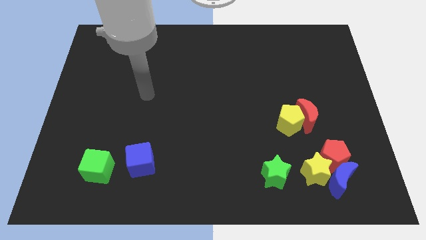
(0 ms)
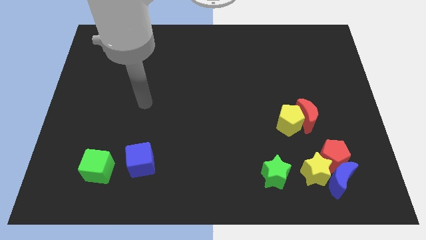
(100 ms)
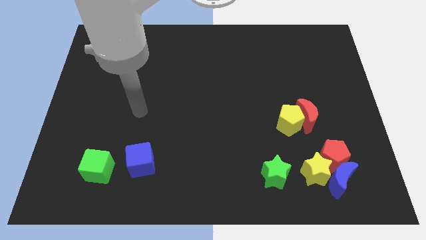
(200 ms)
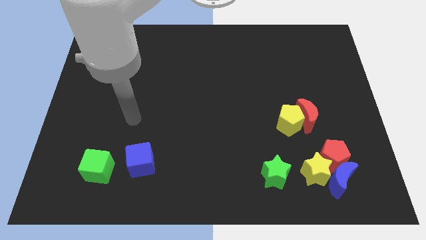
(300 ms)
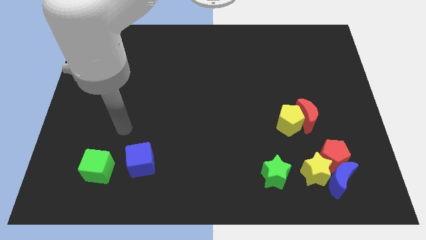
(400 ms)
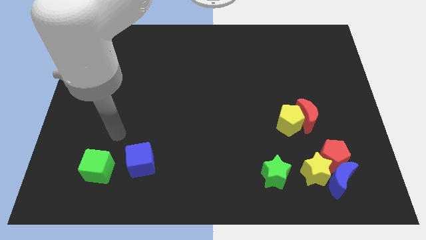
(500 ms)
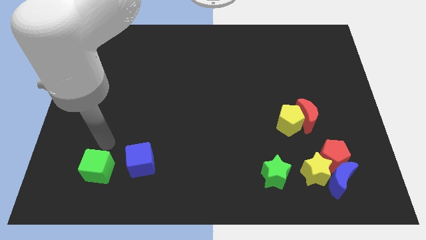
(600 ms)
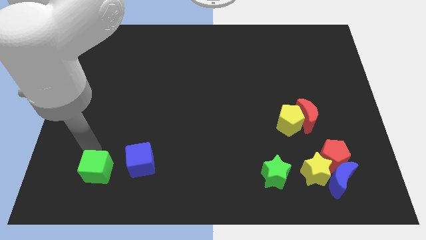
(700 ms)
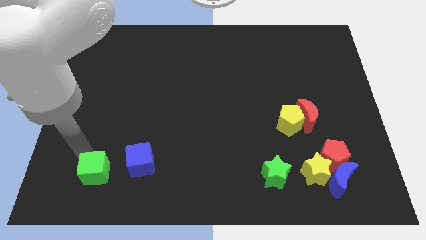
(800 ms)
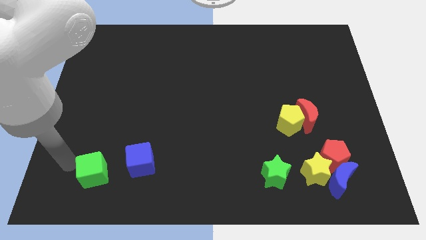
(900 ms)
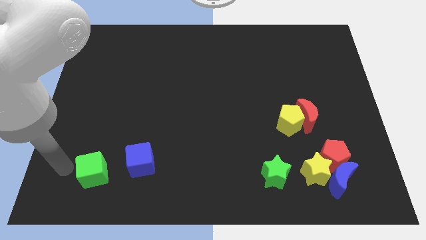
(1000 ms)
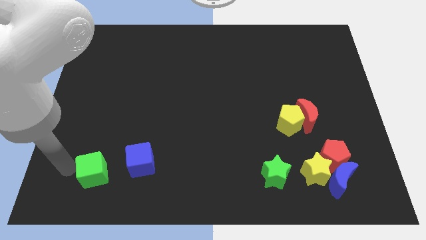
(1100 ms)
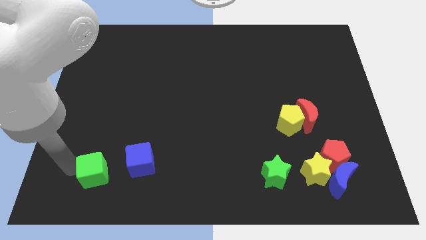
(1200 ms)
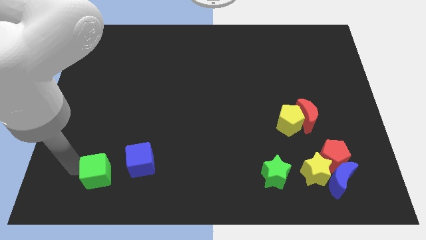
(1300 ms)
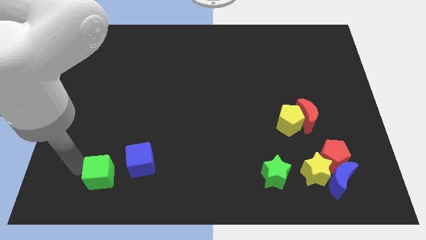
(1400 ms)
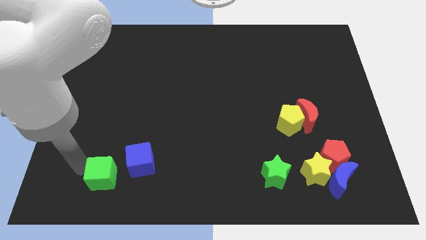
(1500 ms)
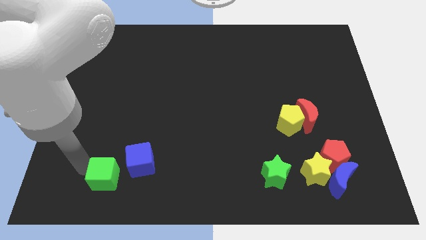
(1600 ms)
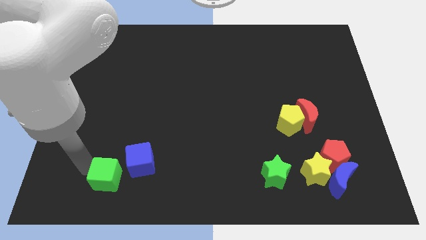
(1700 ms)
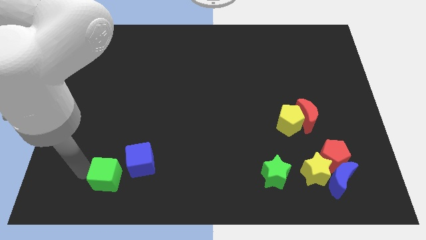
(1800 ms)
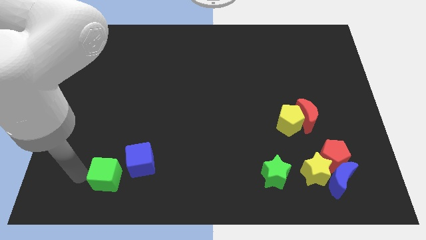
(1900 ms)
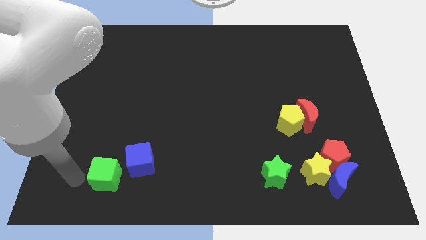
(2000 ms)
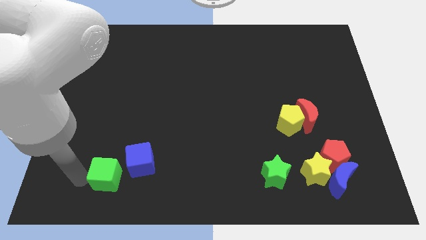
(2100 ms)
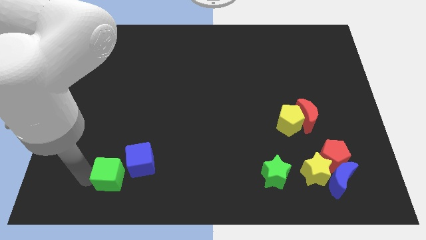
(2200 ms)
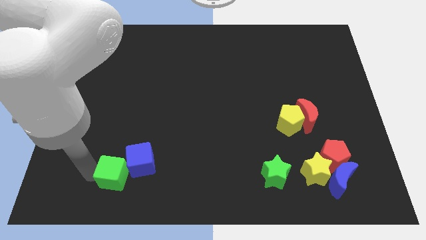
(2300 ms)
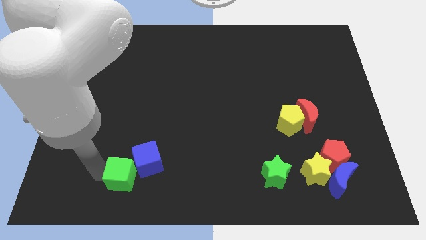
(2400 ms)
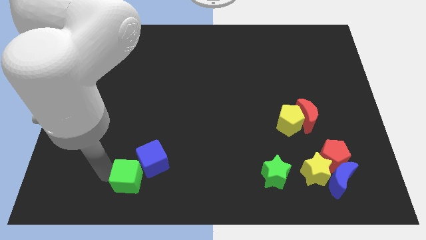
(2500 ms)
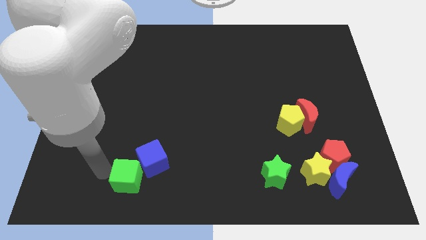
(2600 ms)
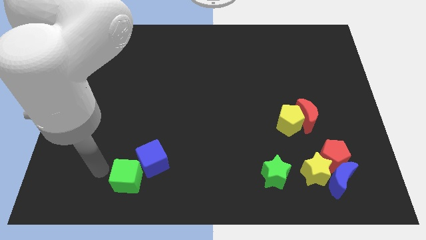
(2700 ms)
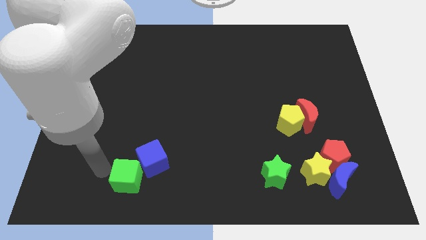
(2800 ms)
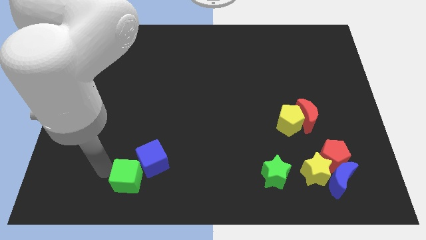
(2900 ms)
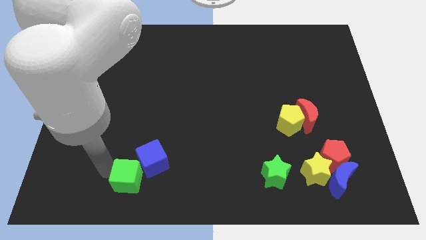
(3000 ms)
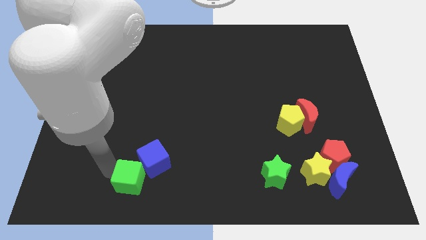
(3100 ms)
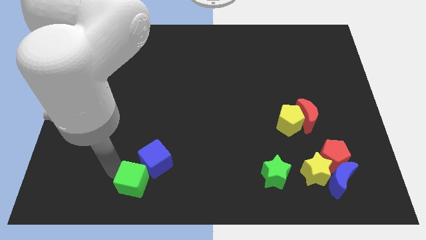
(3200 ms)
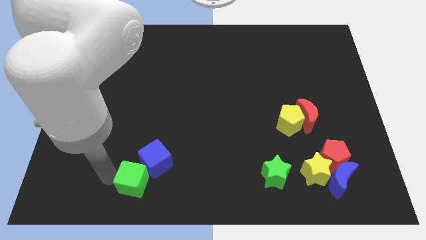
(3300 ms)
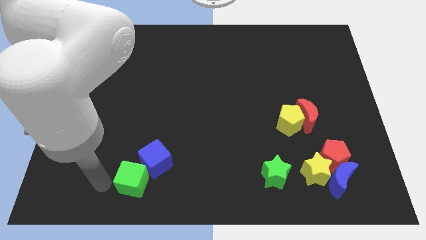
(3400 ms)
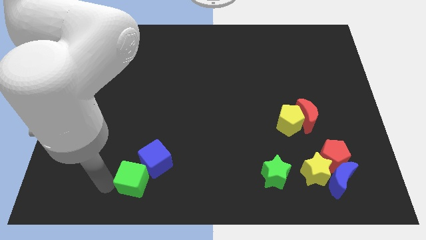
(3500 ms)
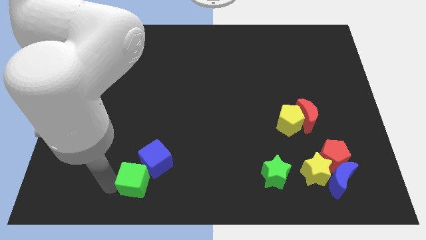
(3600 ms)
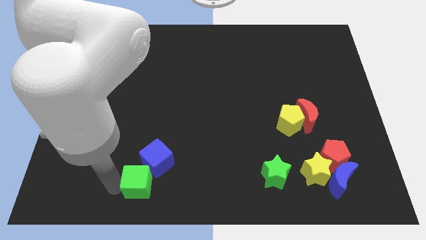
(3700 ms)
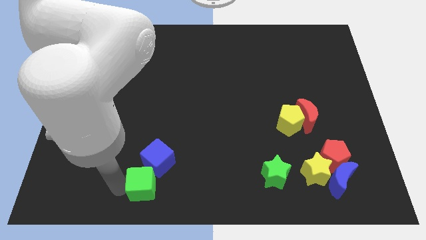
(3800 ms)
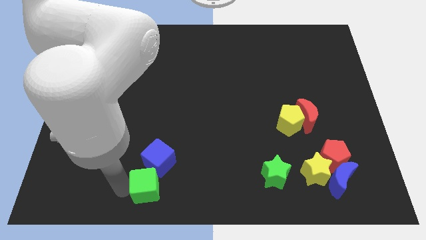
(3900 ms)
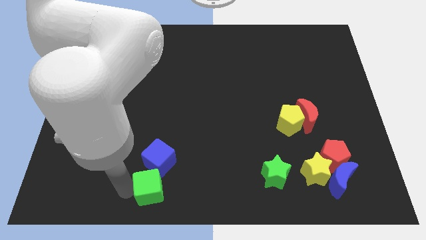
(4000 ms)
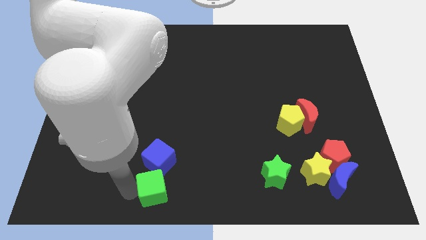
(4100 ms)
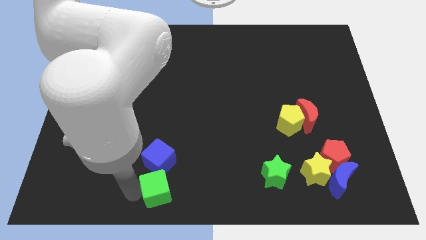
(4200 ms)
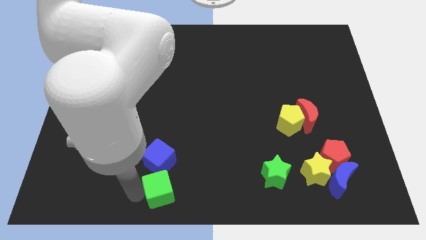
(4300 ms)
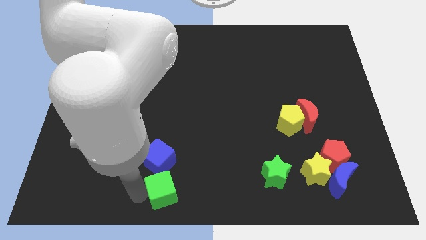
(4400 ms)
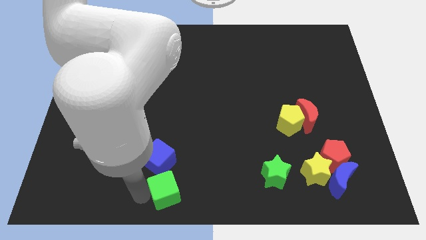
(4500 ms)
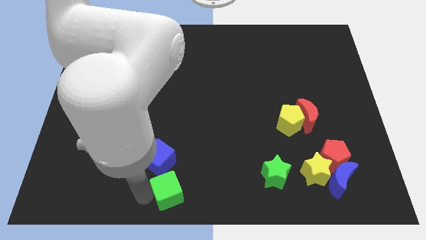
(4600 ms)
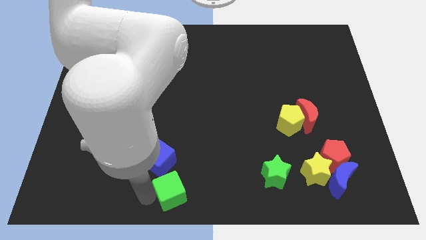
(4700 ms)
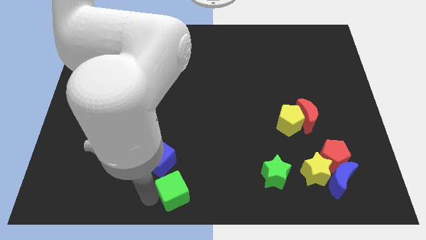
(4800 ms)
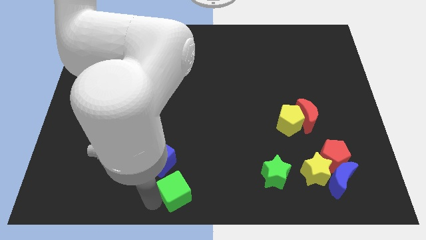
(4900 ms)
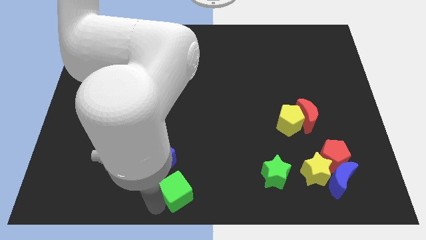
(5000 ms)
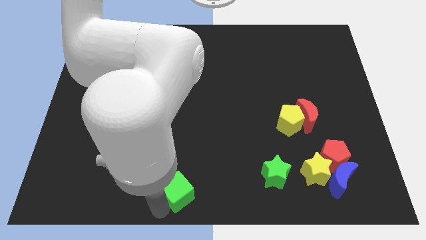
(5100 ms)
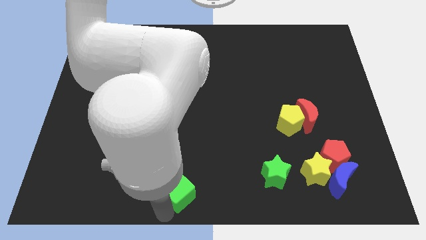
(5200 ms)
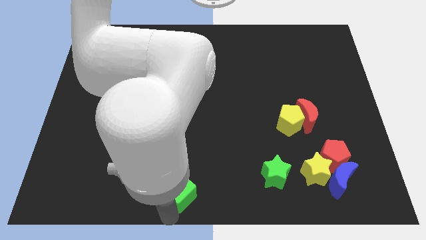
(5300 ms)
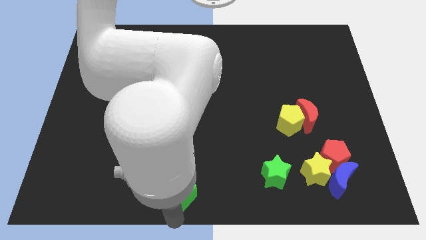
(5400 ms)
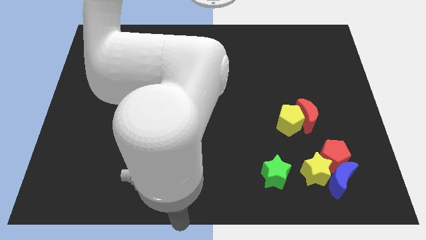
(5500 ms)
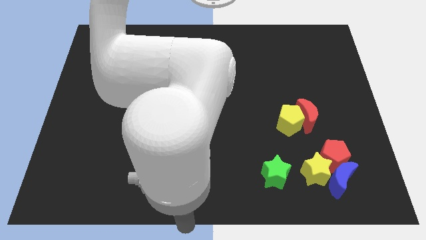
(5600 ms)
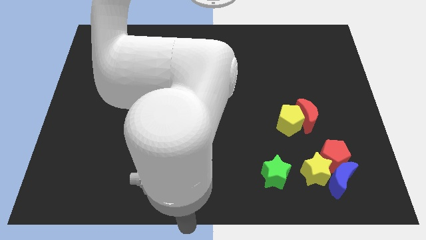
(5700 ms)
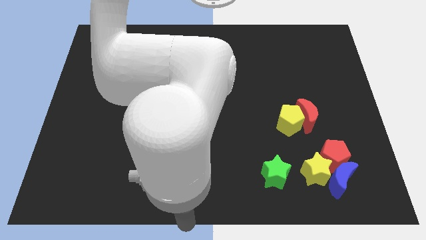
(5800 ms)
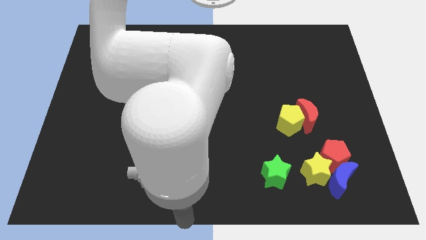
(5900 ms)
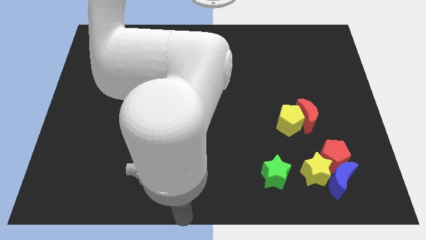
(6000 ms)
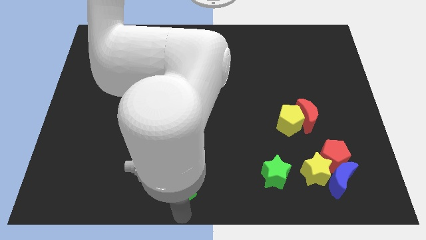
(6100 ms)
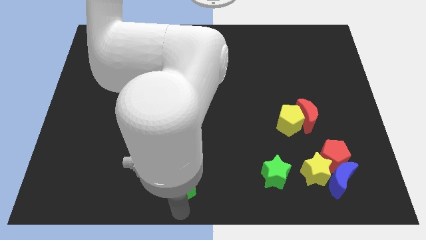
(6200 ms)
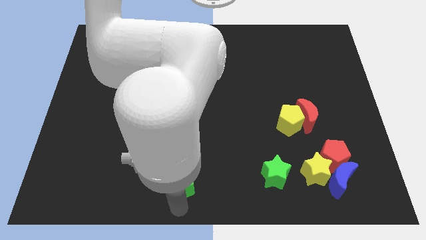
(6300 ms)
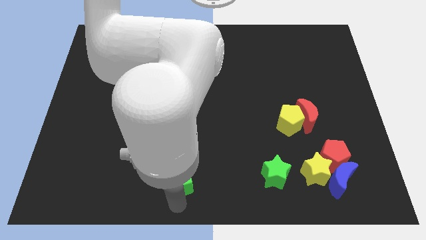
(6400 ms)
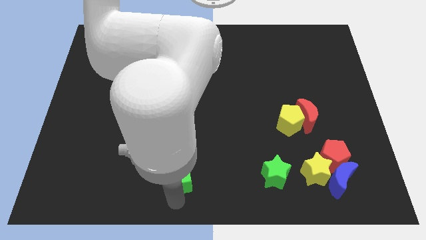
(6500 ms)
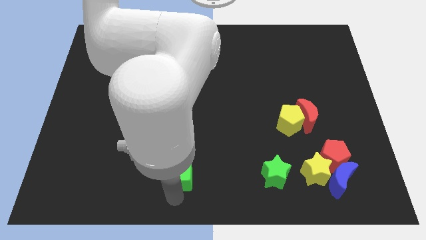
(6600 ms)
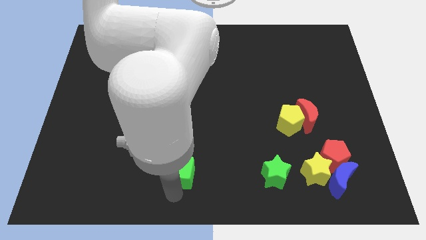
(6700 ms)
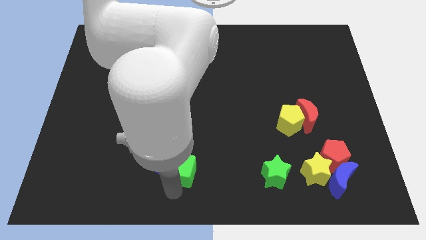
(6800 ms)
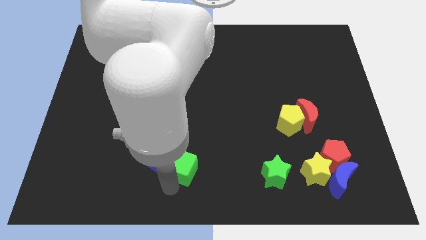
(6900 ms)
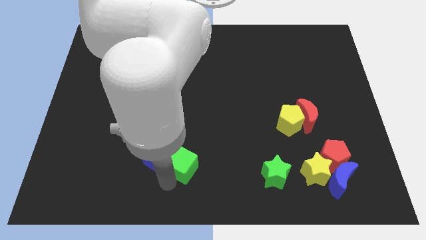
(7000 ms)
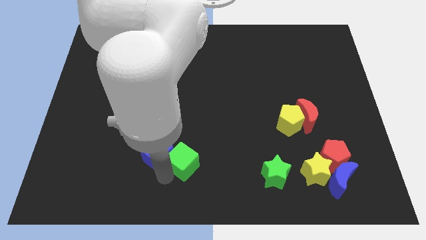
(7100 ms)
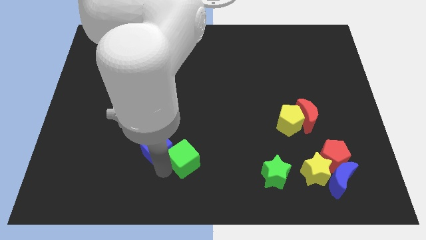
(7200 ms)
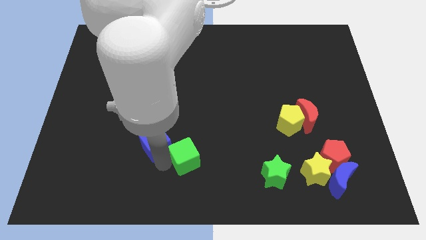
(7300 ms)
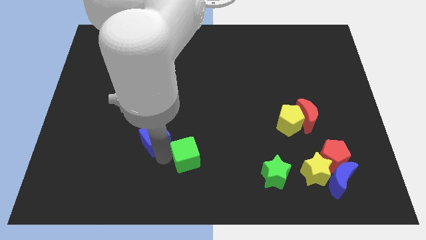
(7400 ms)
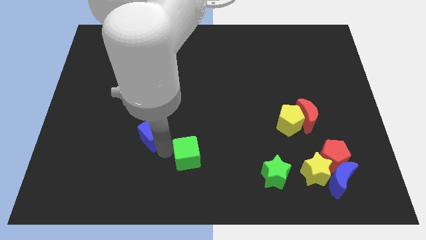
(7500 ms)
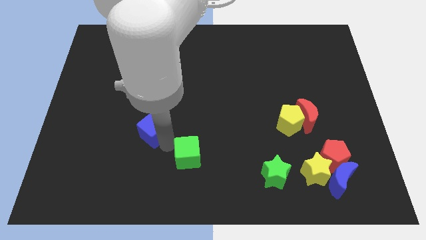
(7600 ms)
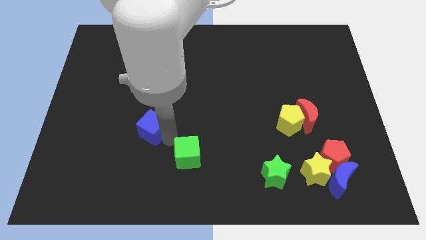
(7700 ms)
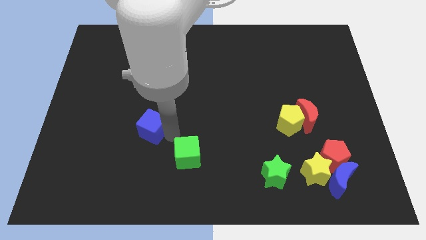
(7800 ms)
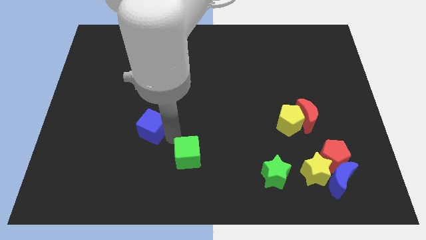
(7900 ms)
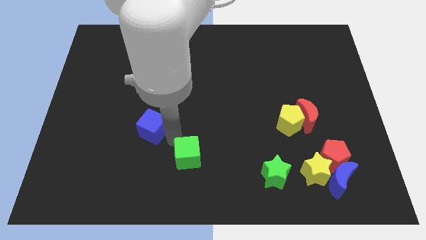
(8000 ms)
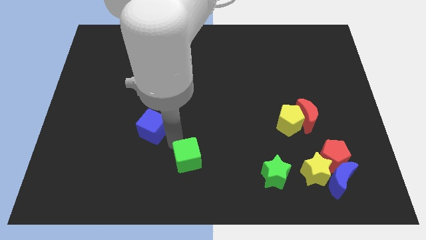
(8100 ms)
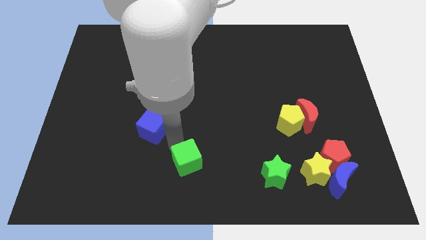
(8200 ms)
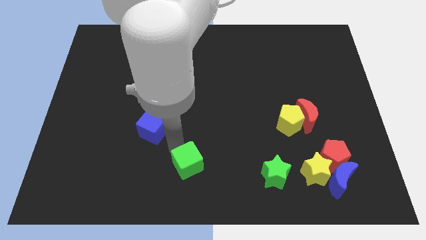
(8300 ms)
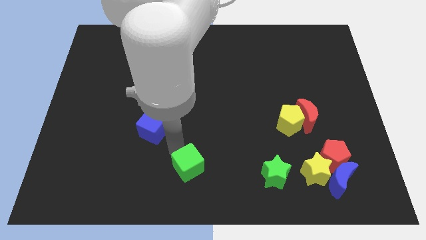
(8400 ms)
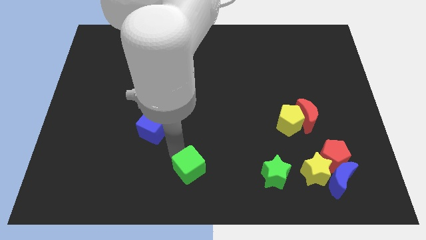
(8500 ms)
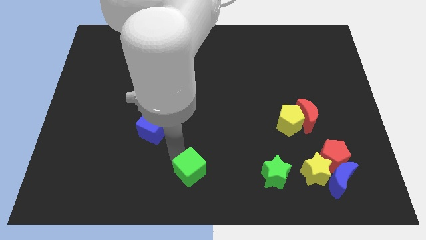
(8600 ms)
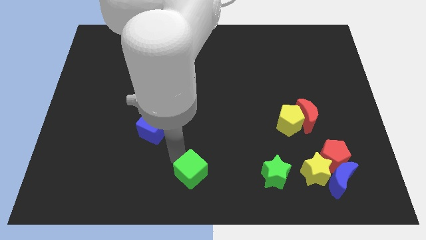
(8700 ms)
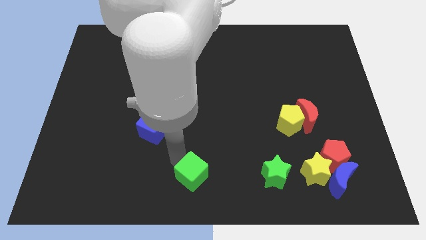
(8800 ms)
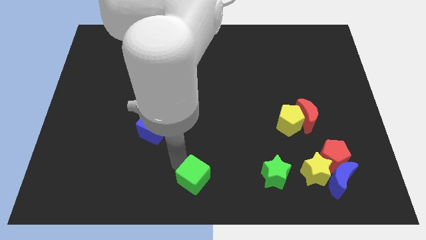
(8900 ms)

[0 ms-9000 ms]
move the green cube right
